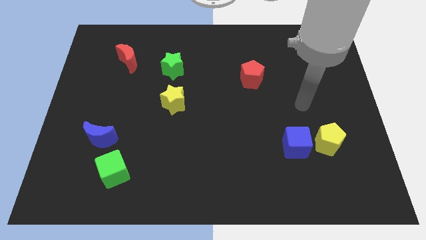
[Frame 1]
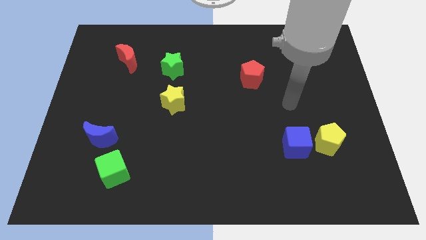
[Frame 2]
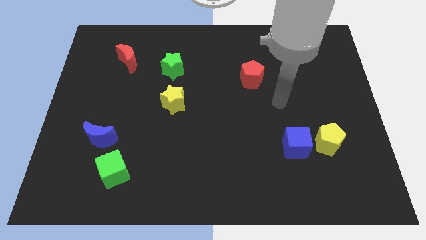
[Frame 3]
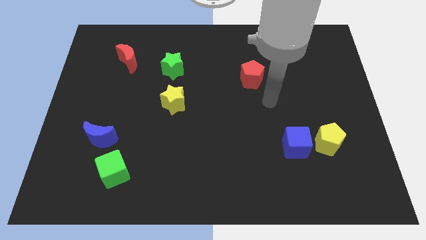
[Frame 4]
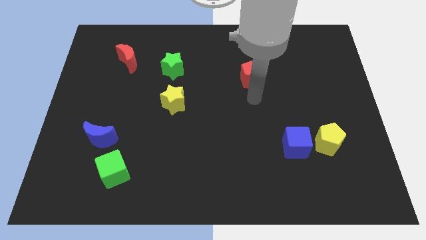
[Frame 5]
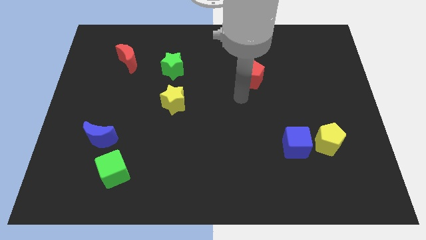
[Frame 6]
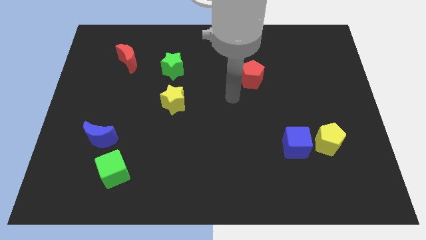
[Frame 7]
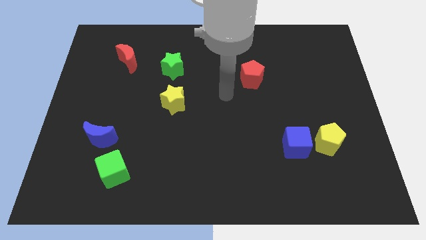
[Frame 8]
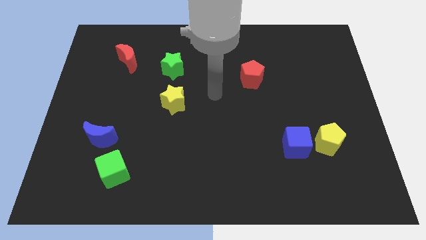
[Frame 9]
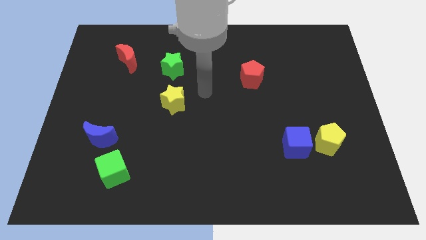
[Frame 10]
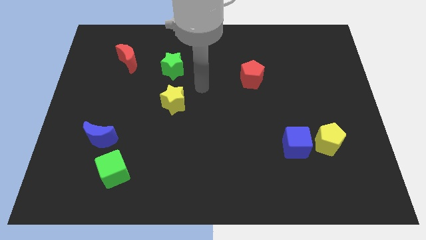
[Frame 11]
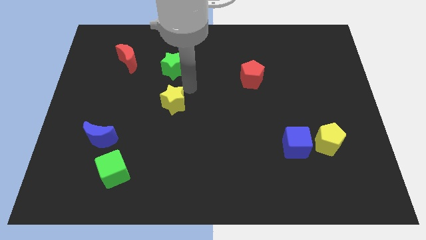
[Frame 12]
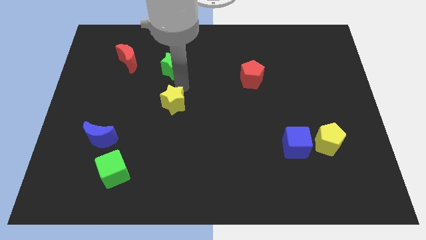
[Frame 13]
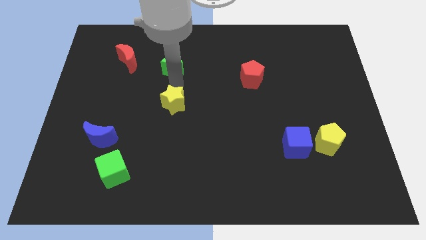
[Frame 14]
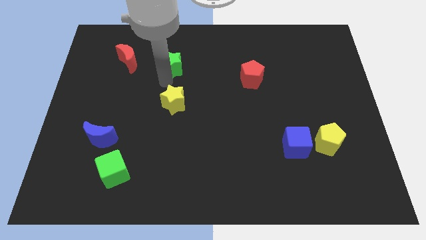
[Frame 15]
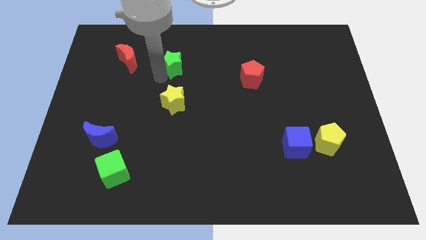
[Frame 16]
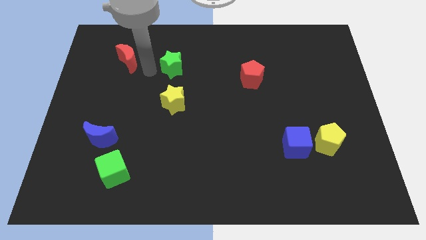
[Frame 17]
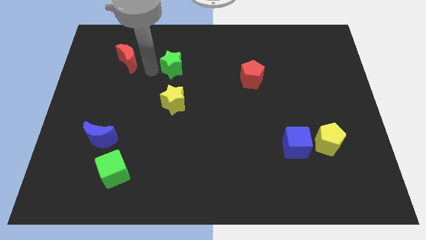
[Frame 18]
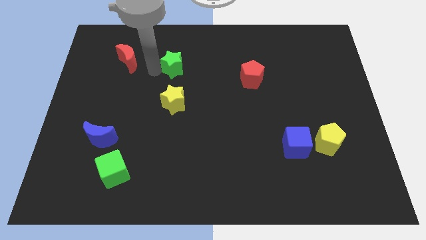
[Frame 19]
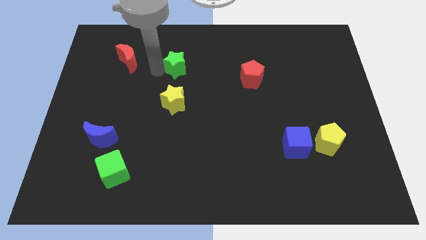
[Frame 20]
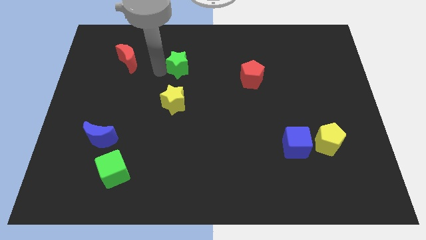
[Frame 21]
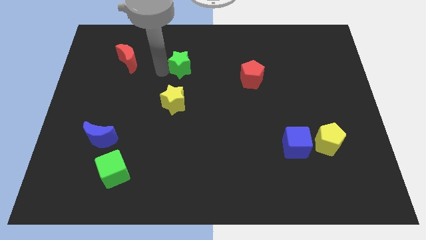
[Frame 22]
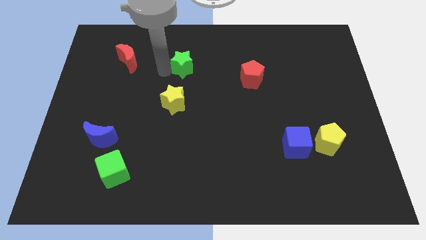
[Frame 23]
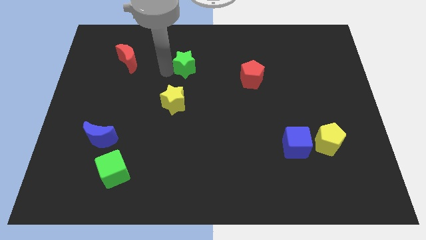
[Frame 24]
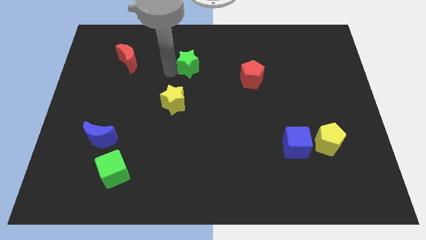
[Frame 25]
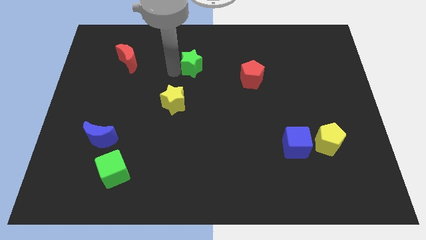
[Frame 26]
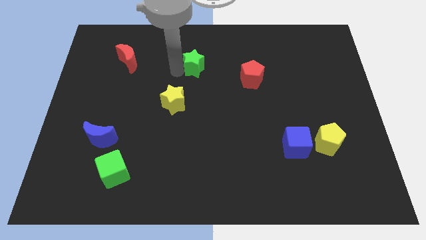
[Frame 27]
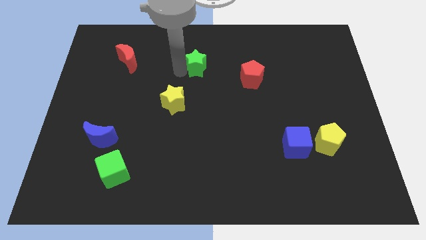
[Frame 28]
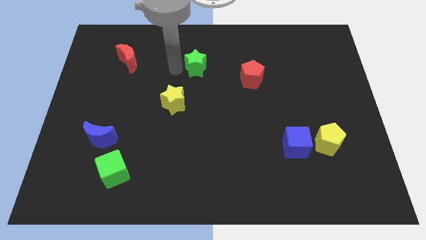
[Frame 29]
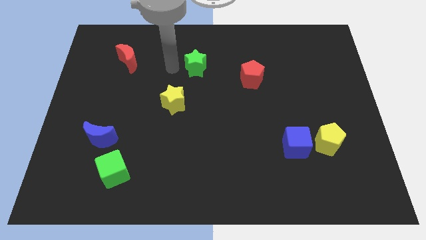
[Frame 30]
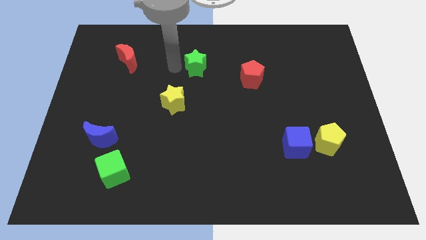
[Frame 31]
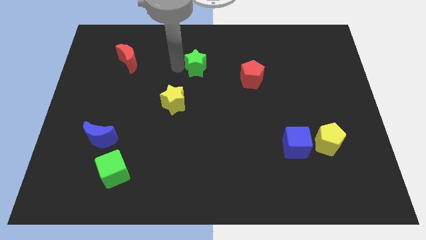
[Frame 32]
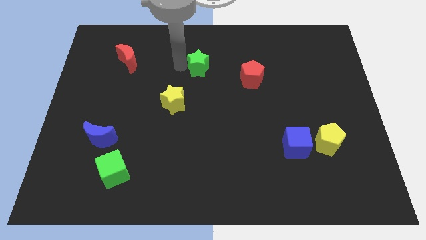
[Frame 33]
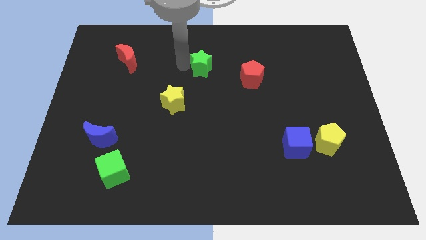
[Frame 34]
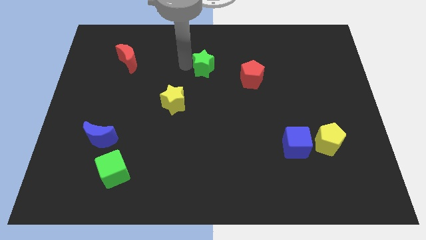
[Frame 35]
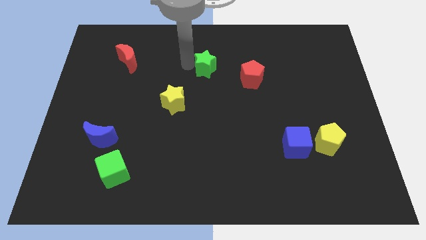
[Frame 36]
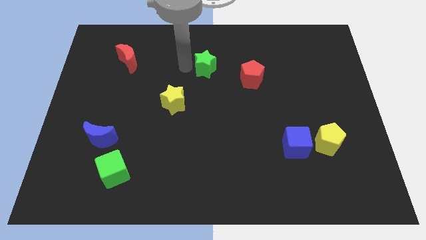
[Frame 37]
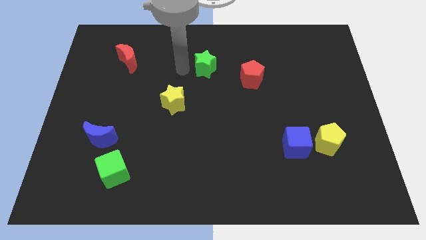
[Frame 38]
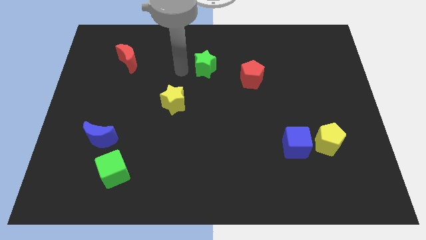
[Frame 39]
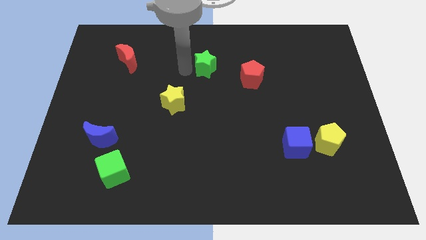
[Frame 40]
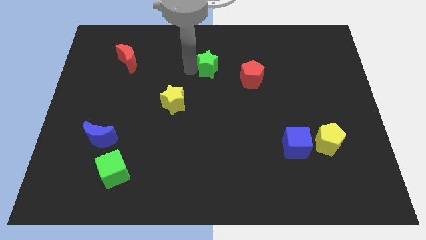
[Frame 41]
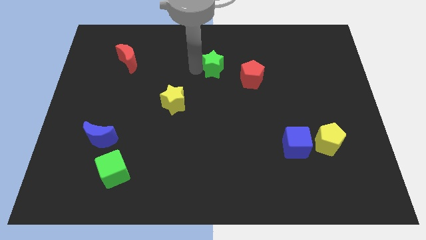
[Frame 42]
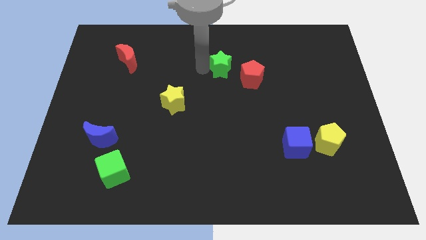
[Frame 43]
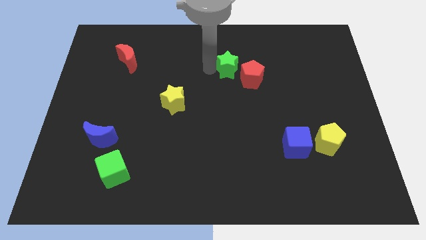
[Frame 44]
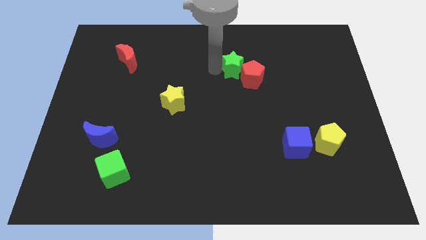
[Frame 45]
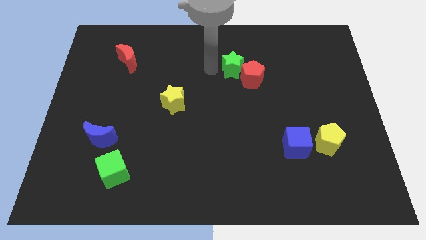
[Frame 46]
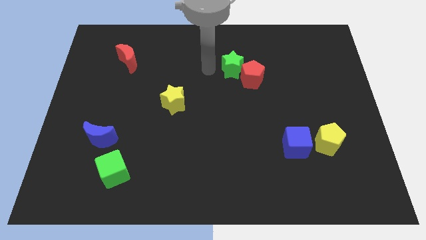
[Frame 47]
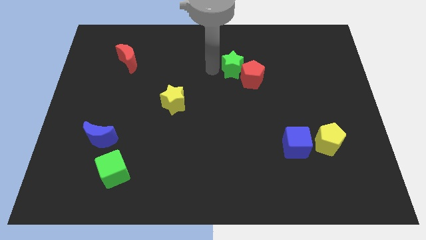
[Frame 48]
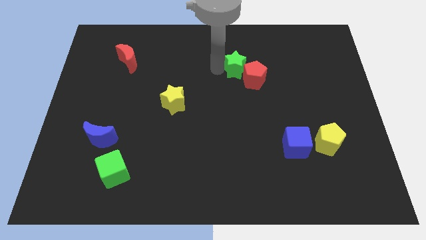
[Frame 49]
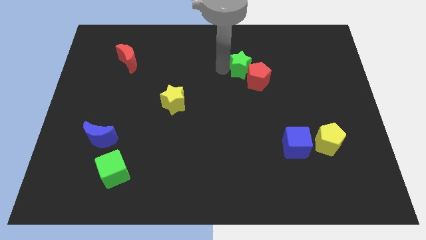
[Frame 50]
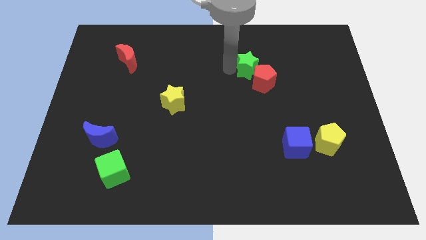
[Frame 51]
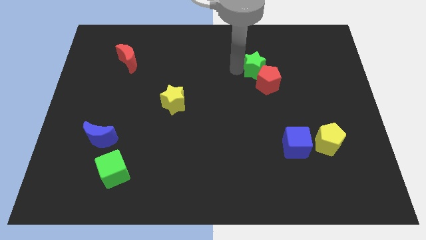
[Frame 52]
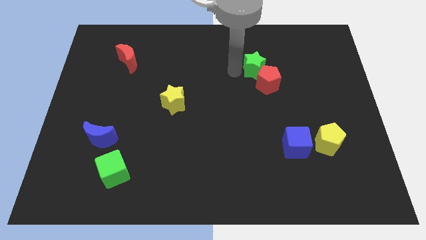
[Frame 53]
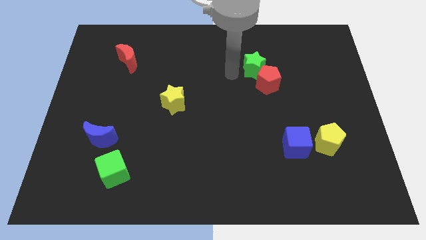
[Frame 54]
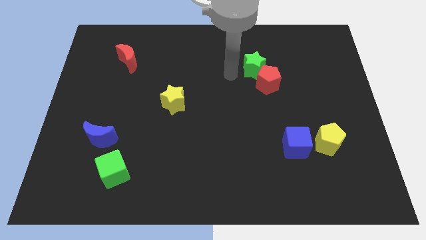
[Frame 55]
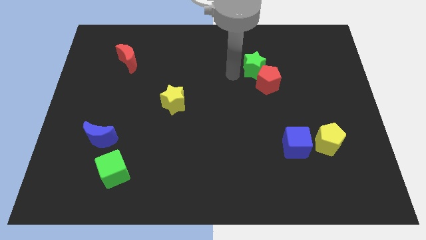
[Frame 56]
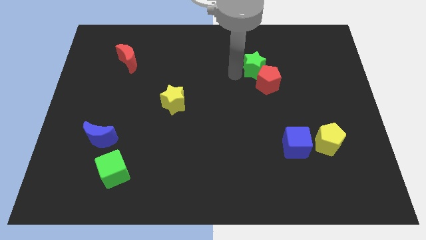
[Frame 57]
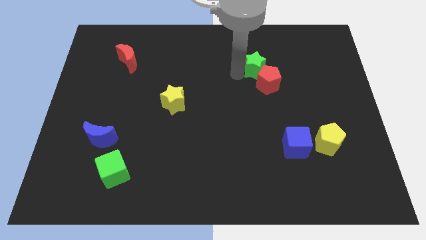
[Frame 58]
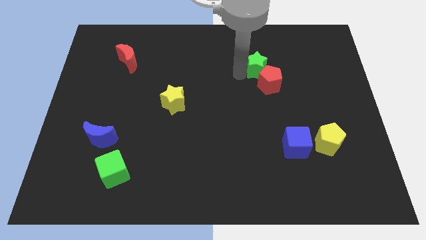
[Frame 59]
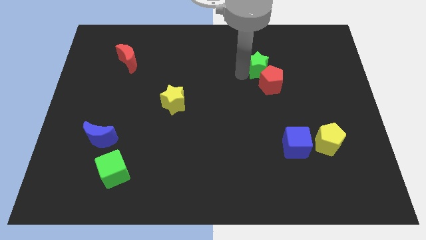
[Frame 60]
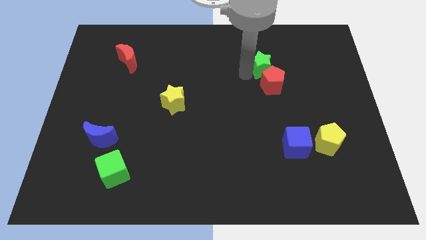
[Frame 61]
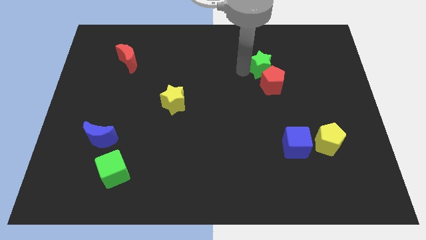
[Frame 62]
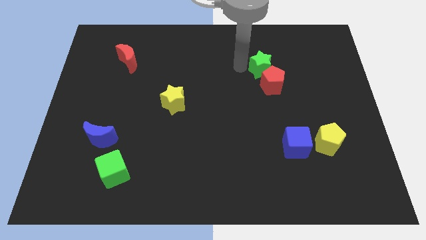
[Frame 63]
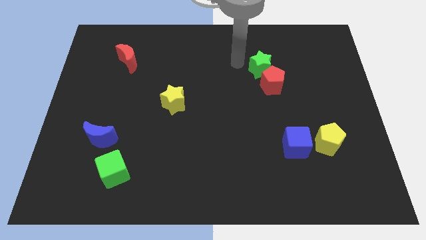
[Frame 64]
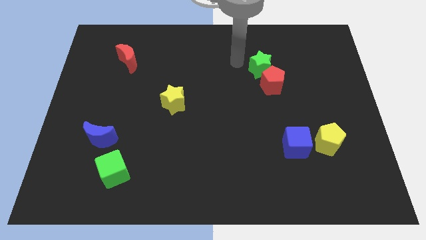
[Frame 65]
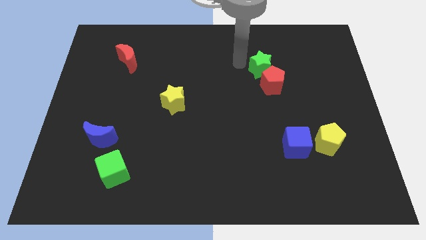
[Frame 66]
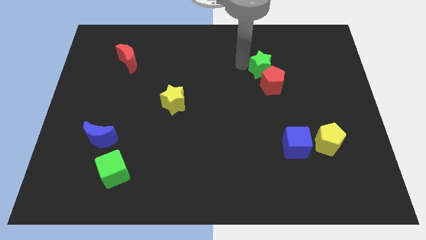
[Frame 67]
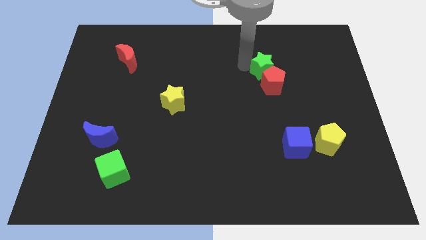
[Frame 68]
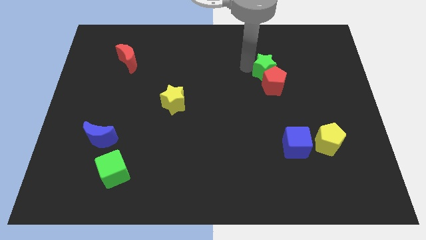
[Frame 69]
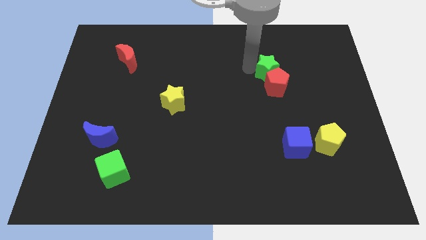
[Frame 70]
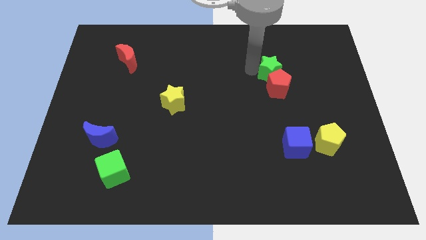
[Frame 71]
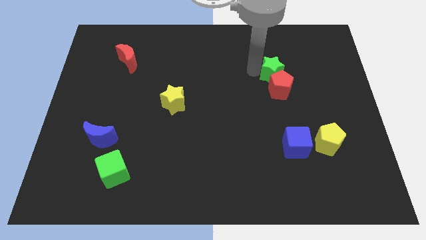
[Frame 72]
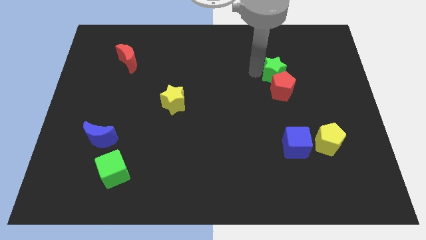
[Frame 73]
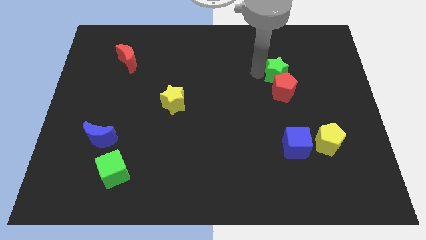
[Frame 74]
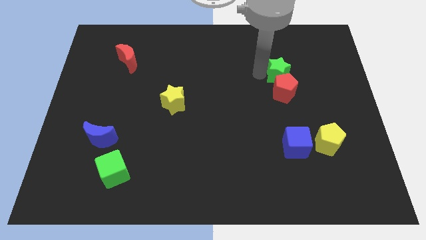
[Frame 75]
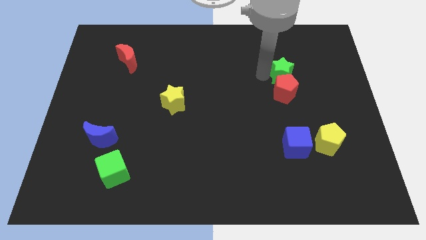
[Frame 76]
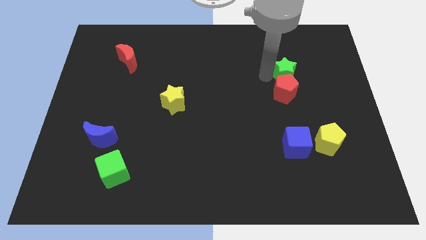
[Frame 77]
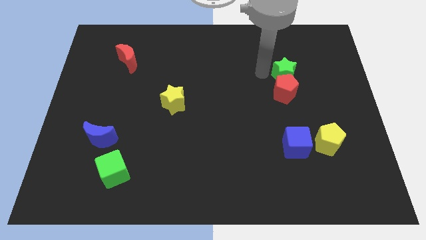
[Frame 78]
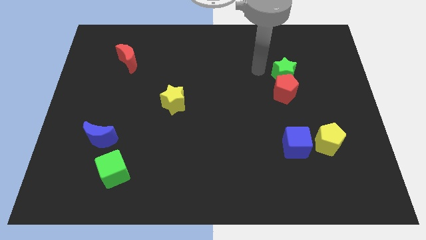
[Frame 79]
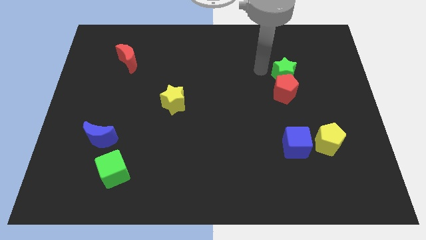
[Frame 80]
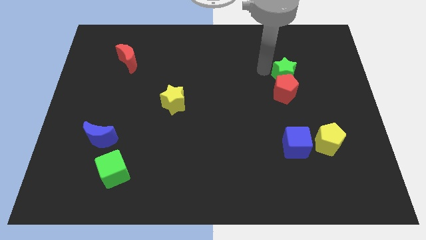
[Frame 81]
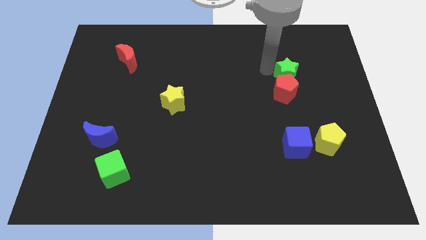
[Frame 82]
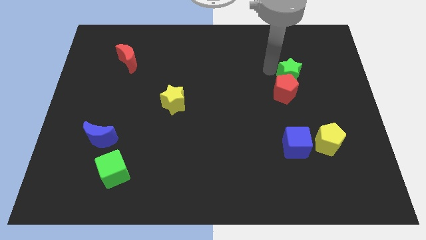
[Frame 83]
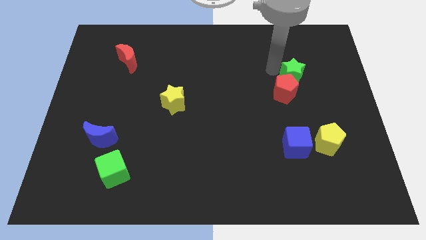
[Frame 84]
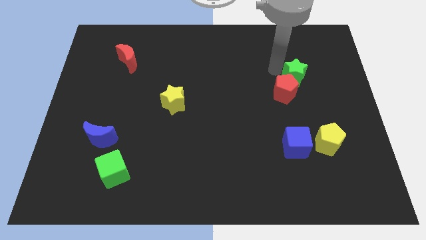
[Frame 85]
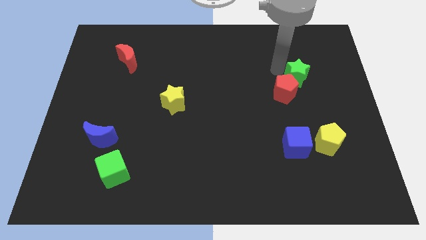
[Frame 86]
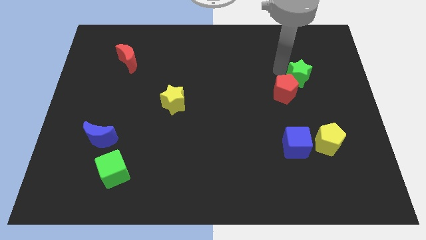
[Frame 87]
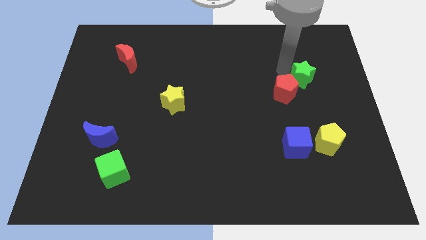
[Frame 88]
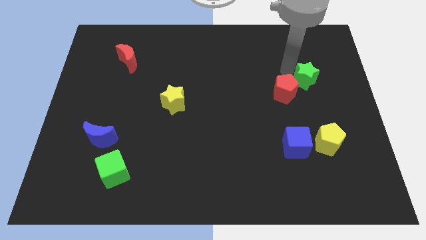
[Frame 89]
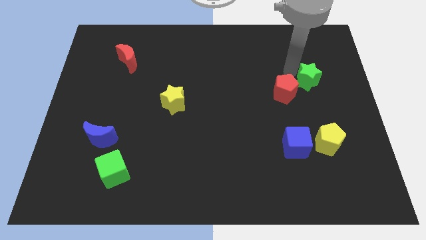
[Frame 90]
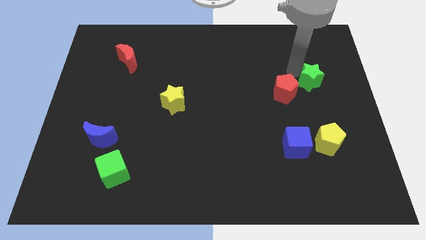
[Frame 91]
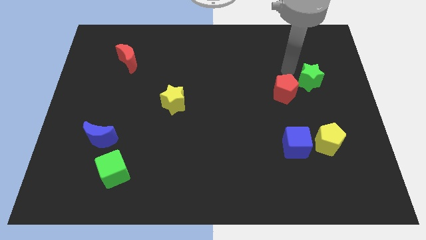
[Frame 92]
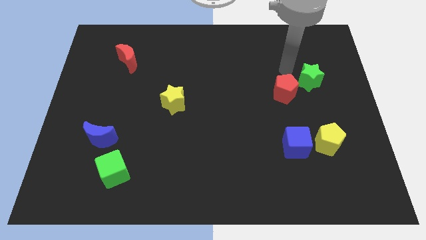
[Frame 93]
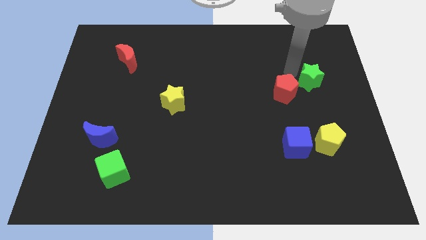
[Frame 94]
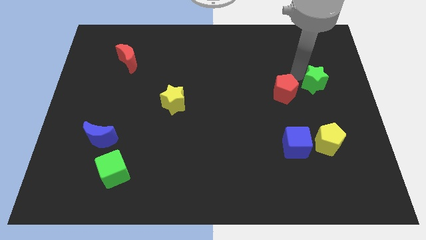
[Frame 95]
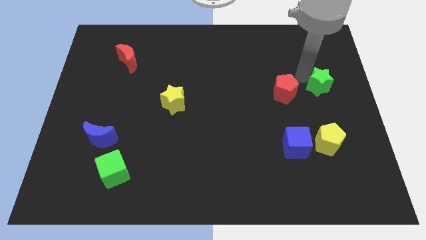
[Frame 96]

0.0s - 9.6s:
put the green star to the right side of the board
